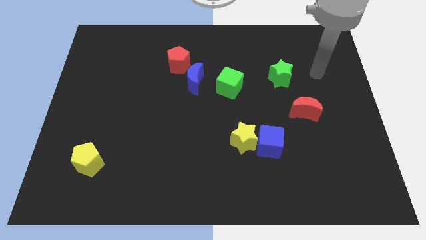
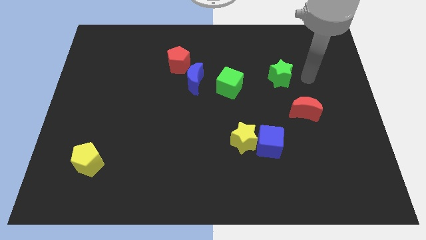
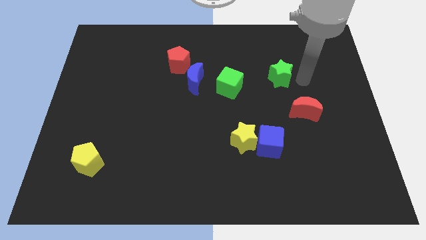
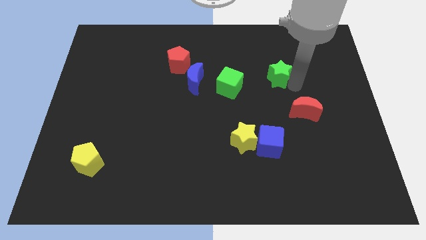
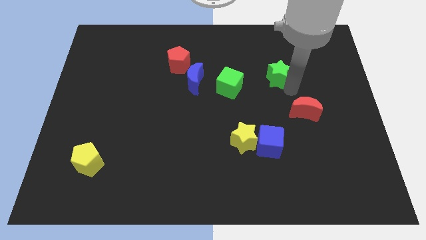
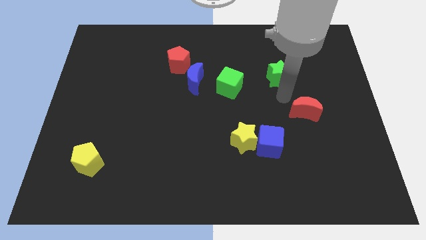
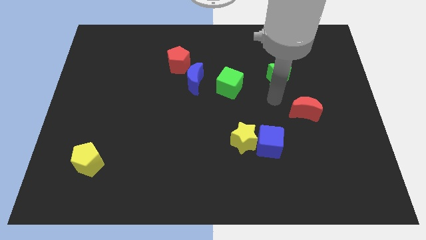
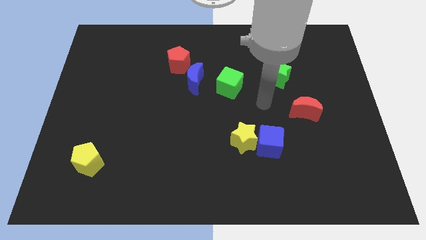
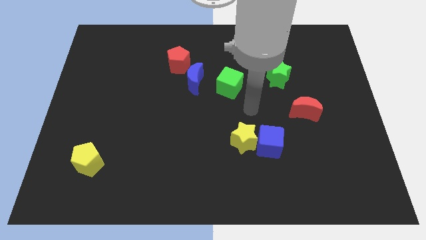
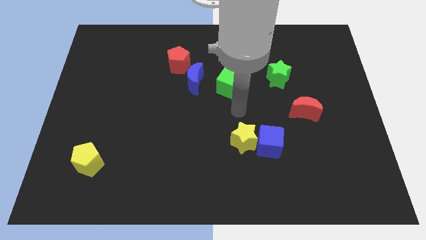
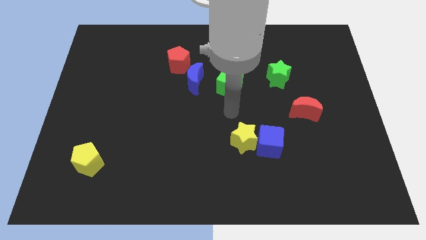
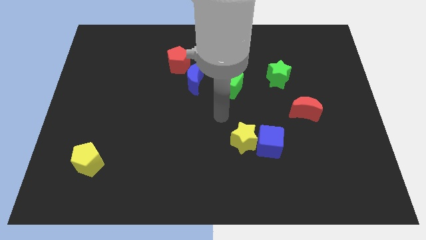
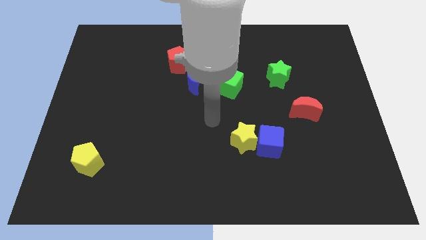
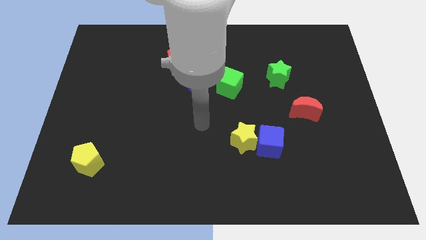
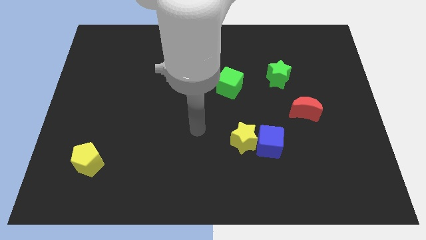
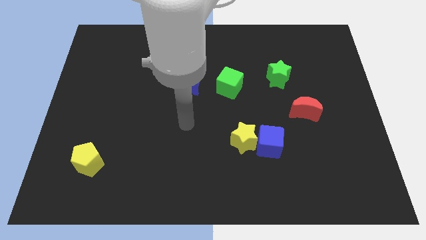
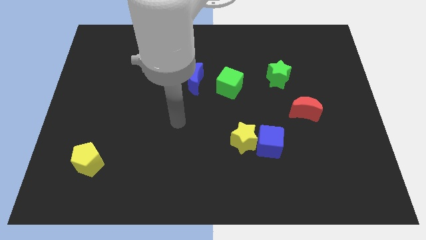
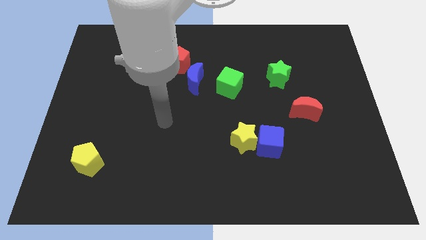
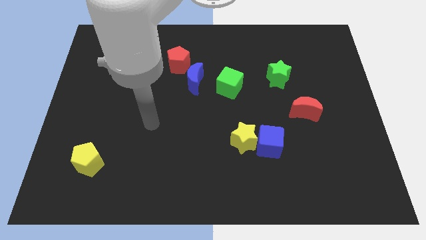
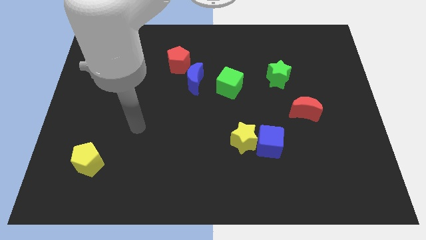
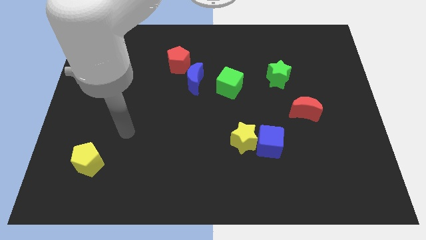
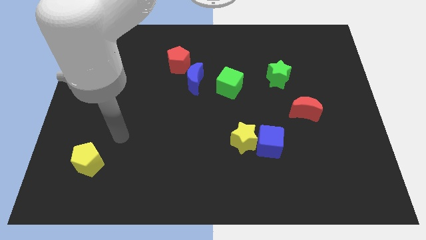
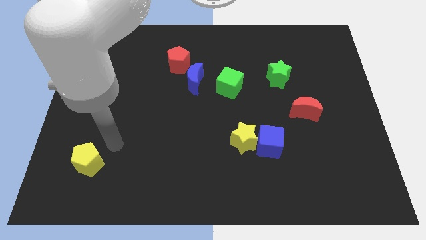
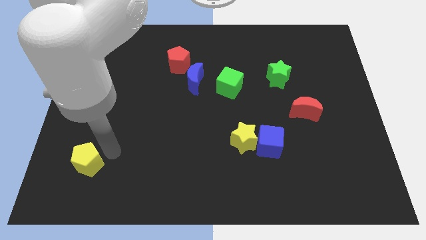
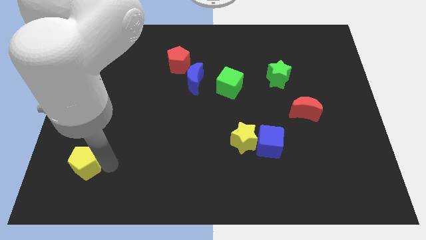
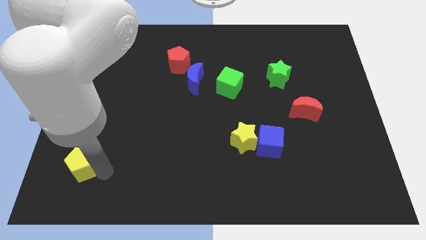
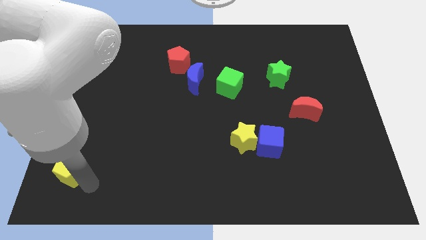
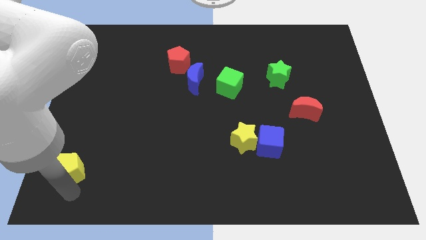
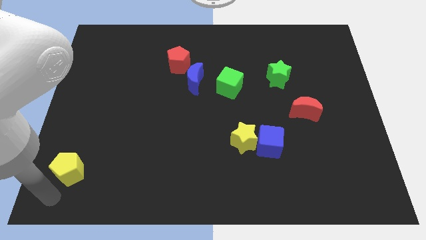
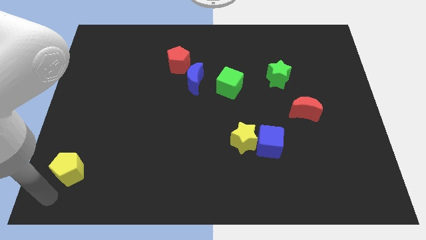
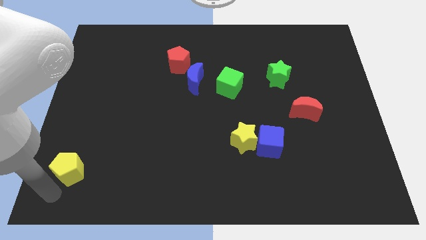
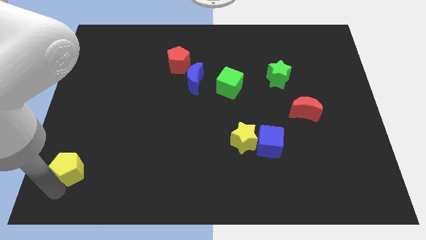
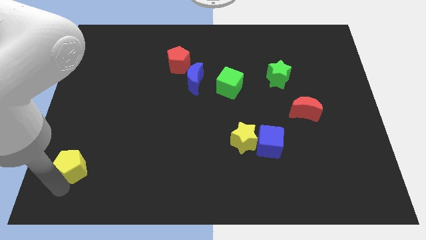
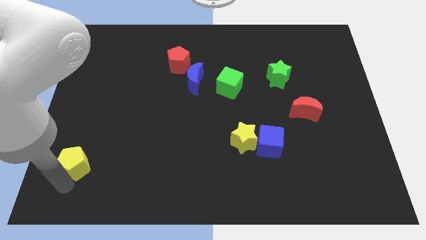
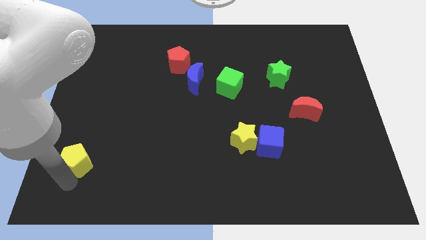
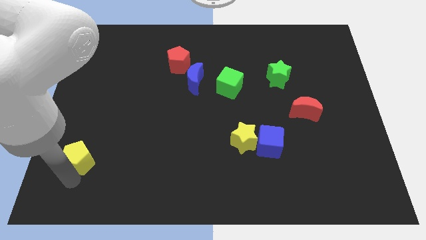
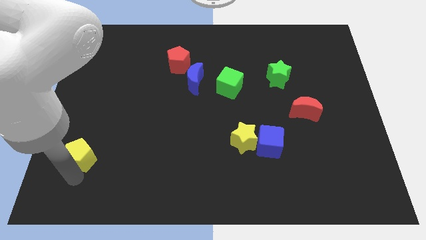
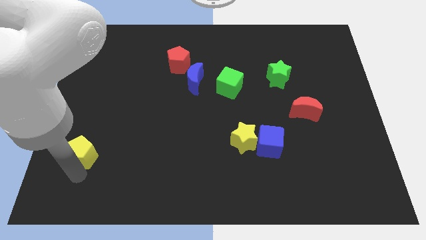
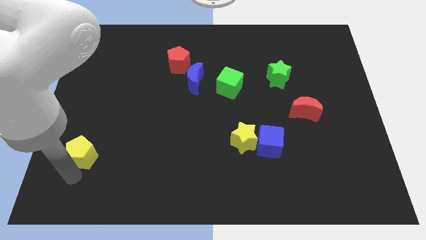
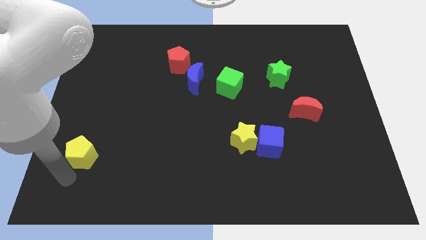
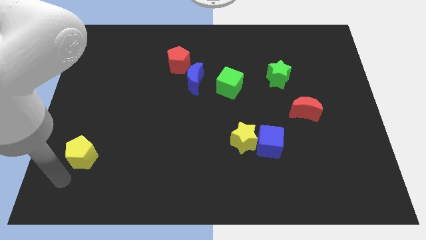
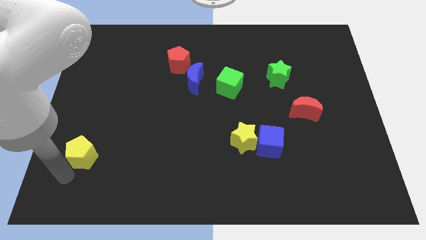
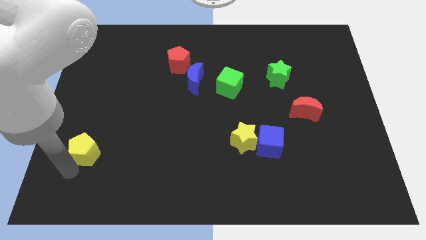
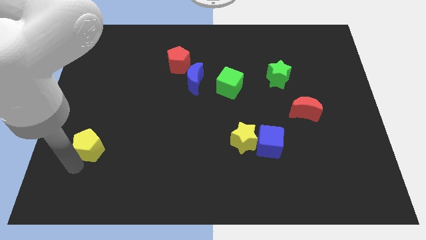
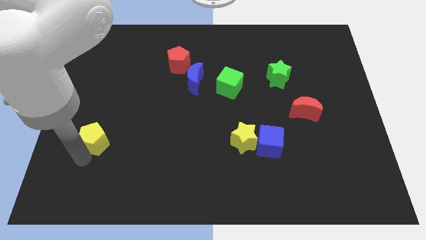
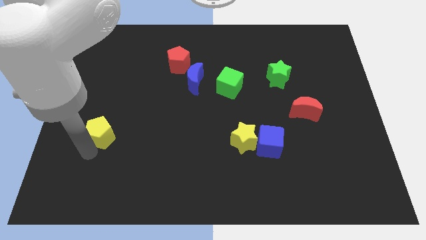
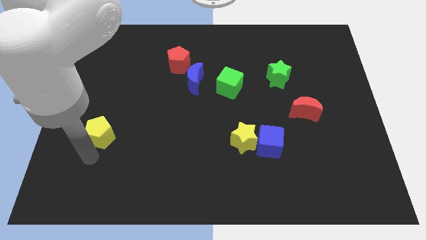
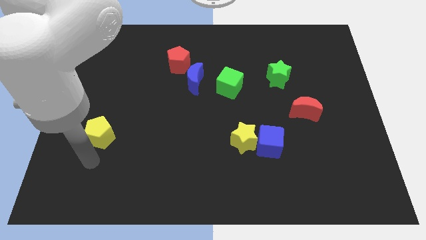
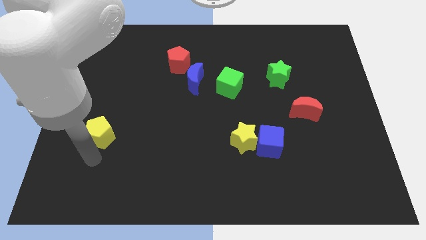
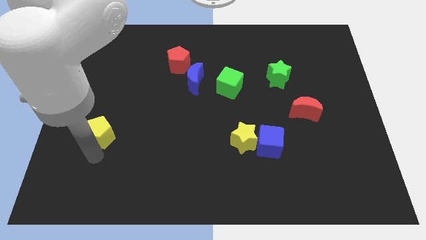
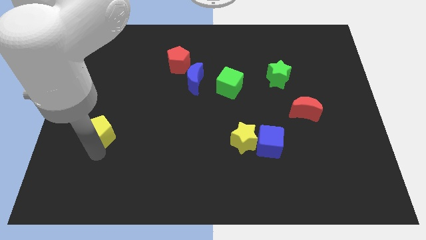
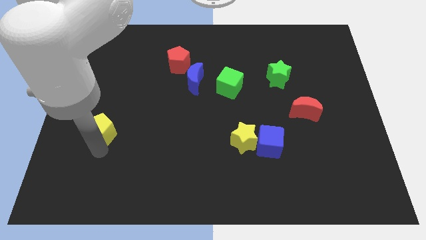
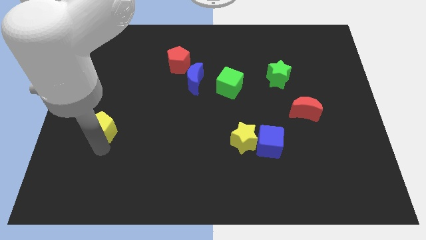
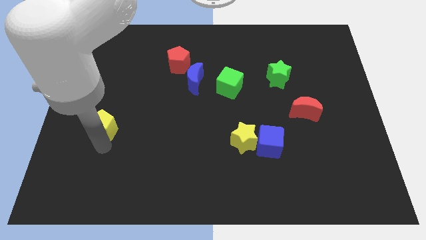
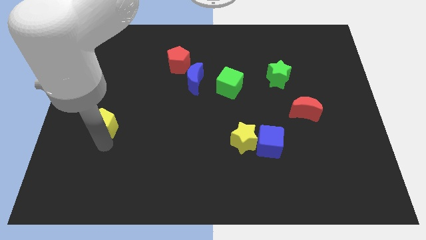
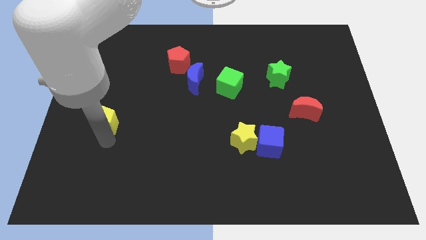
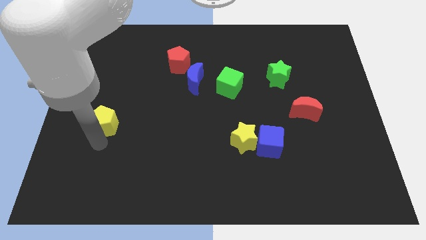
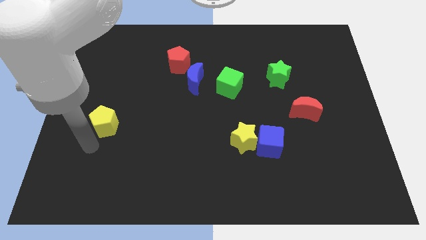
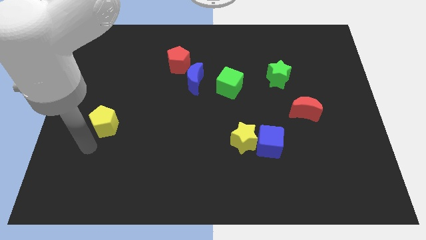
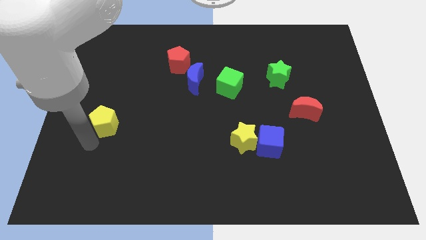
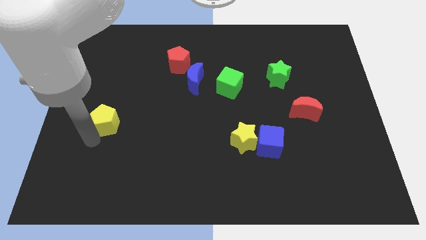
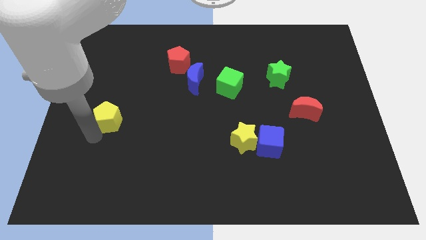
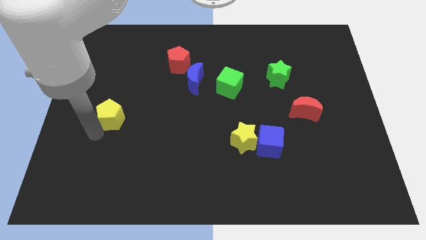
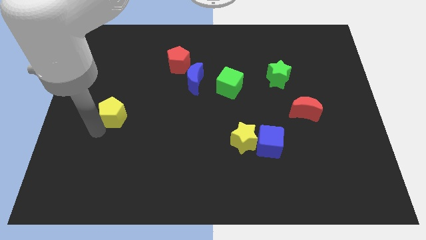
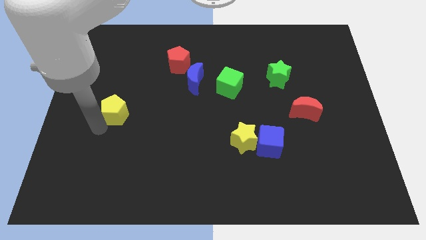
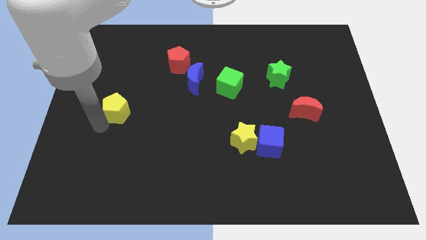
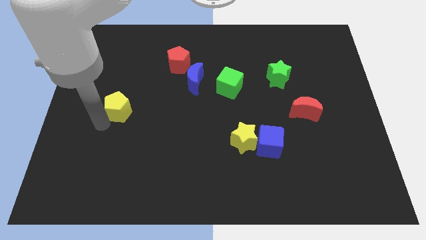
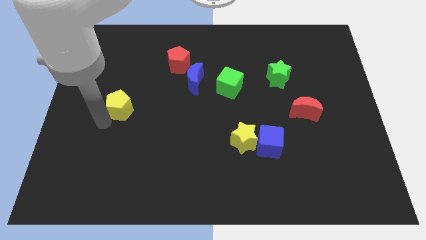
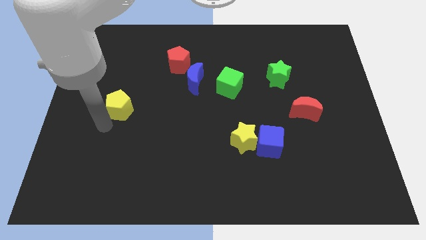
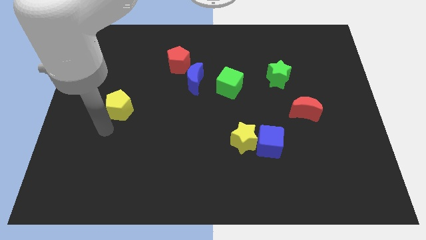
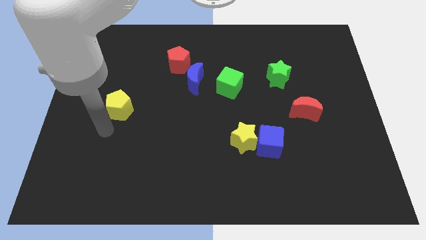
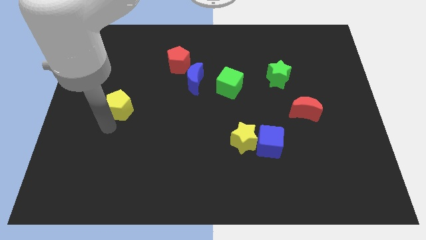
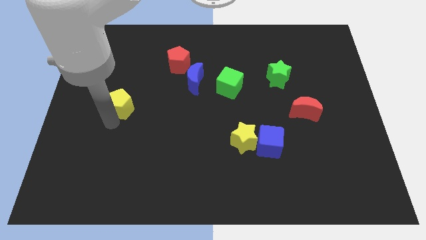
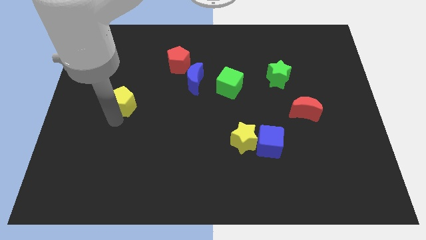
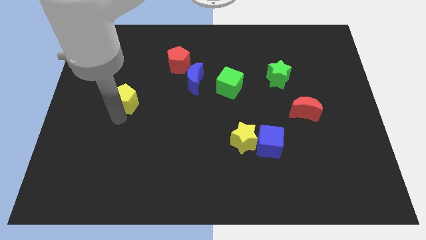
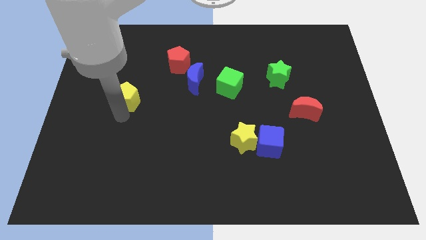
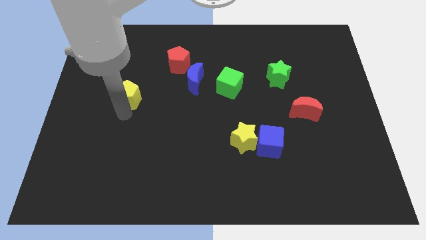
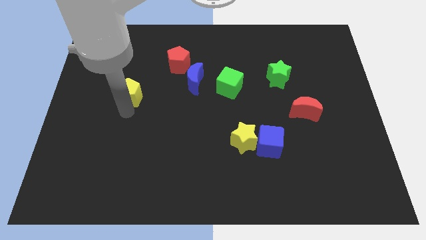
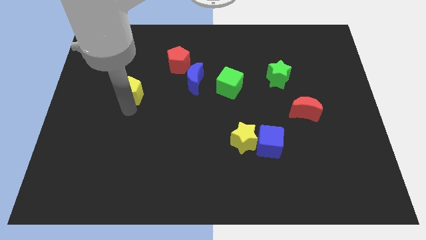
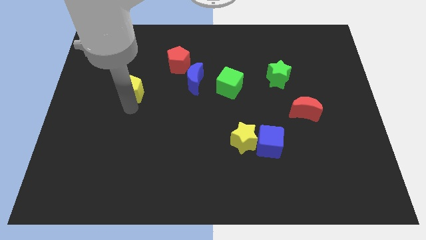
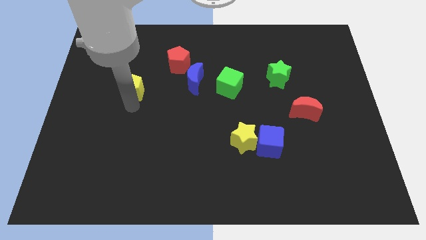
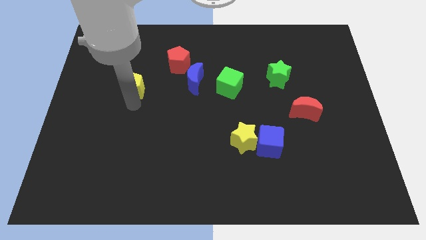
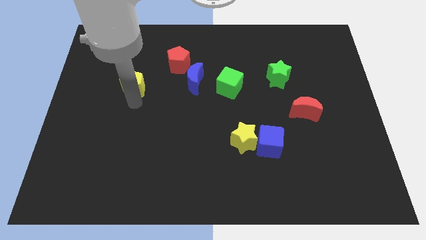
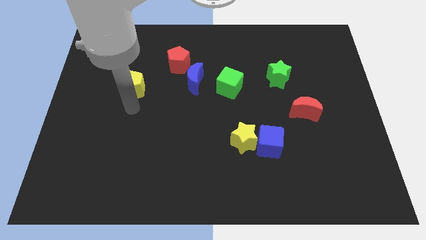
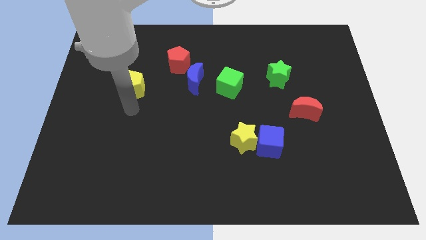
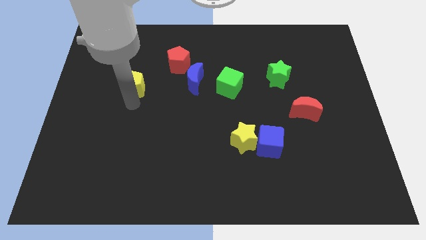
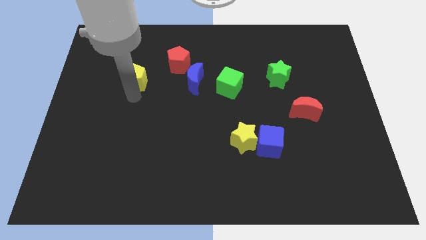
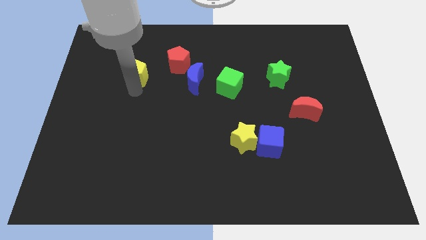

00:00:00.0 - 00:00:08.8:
slide the yellow pentagon to the left of the red pentagon
